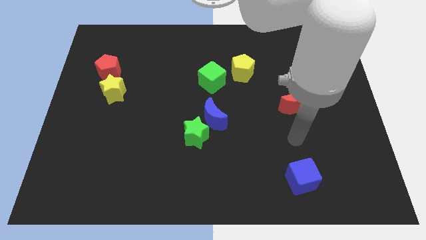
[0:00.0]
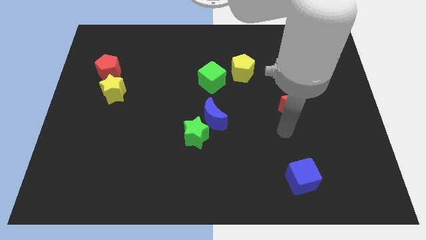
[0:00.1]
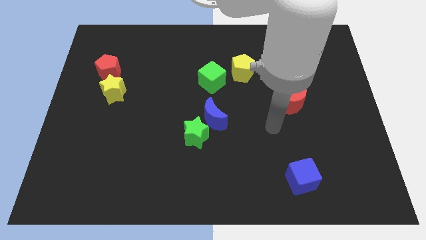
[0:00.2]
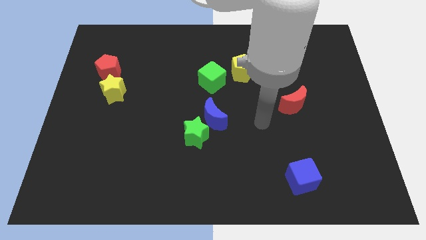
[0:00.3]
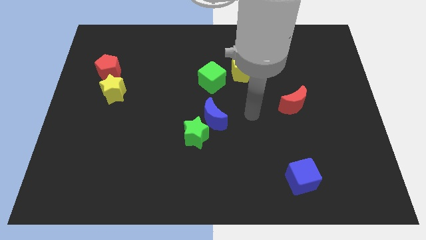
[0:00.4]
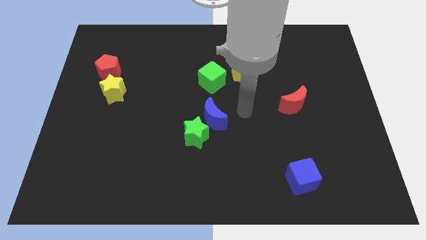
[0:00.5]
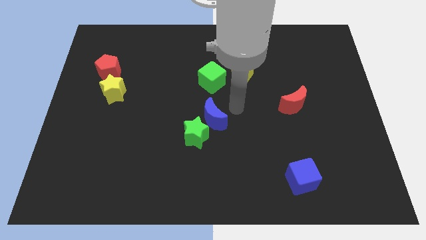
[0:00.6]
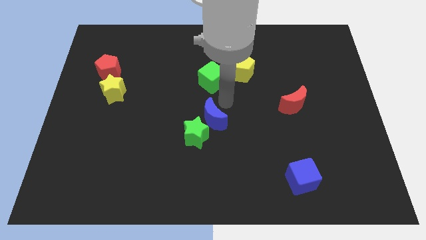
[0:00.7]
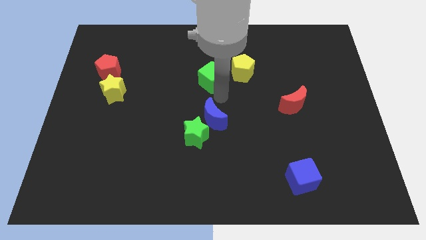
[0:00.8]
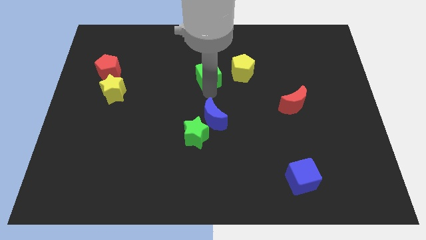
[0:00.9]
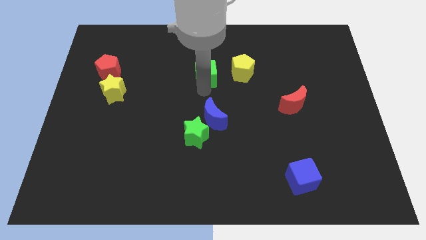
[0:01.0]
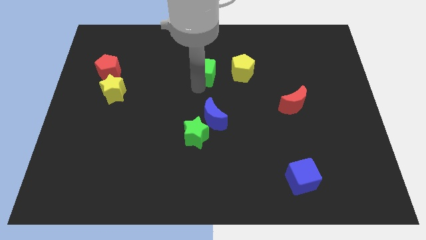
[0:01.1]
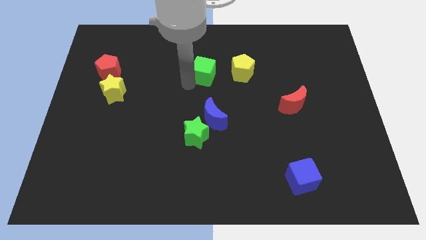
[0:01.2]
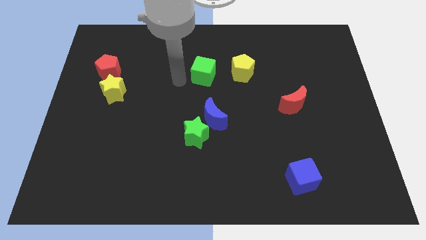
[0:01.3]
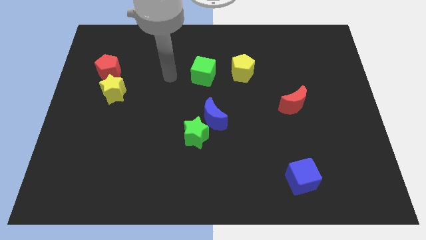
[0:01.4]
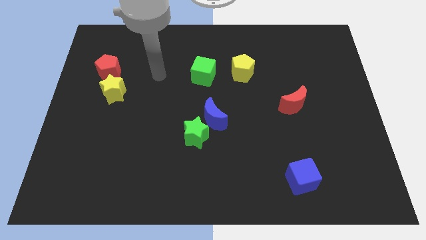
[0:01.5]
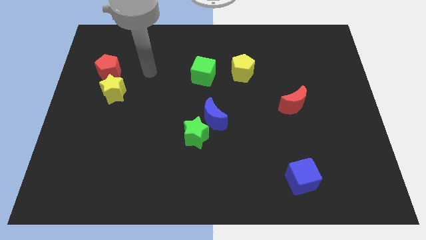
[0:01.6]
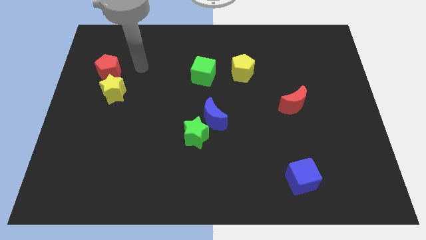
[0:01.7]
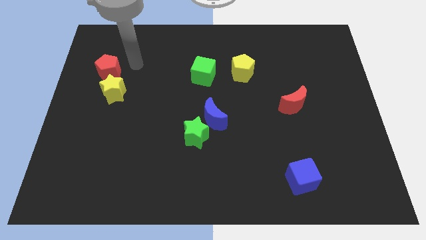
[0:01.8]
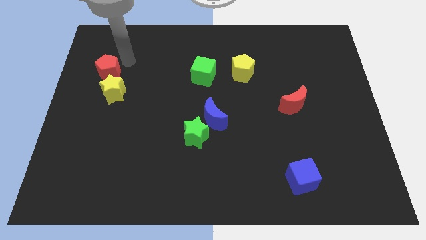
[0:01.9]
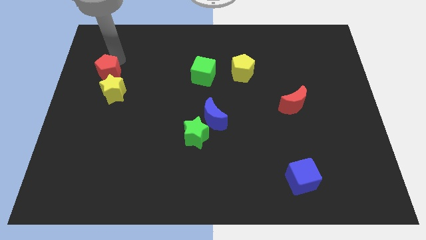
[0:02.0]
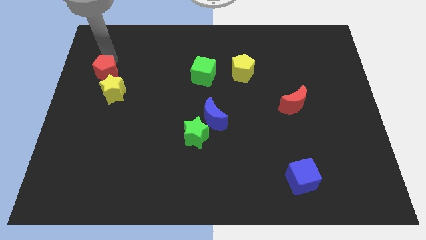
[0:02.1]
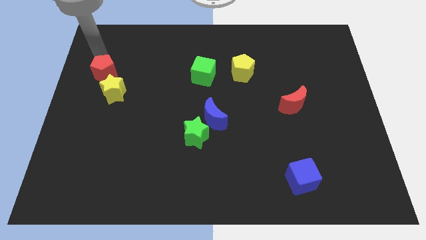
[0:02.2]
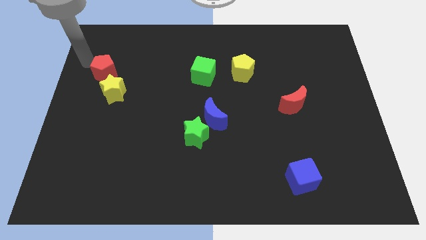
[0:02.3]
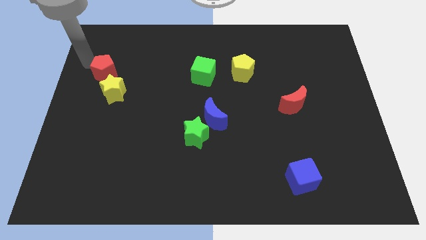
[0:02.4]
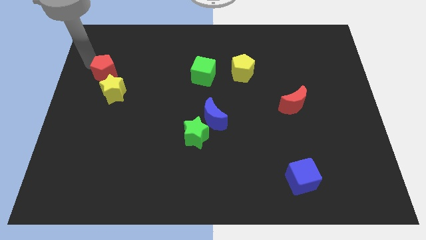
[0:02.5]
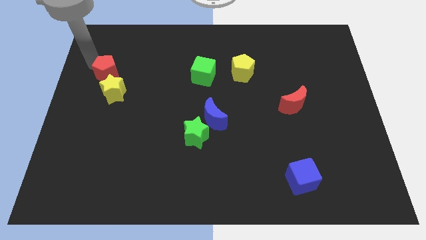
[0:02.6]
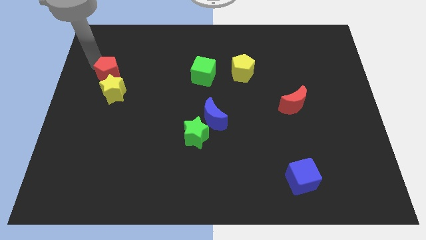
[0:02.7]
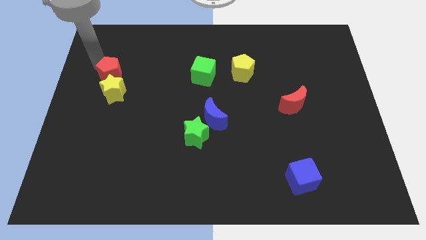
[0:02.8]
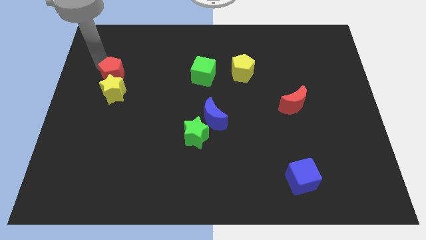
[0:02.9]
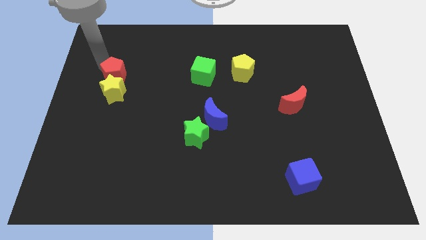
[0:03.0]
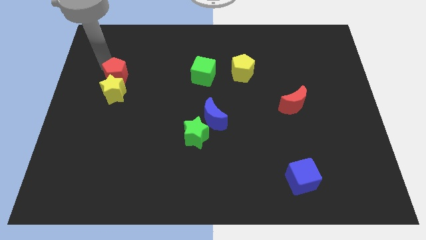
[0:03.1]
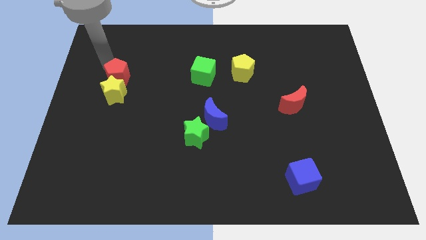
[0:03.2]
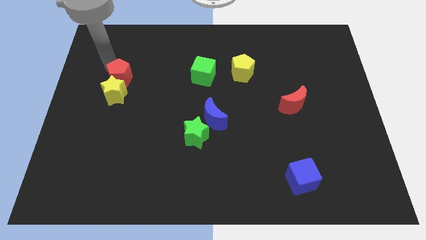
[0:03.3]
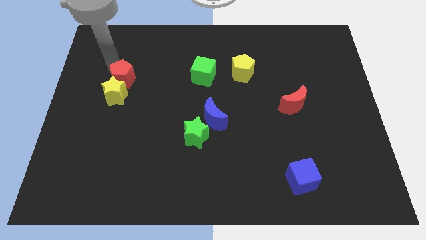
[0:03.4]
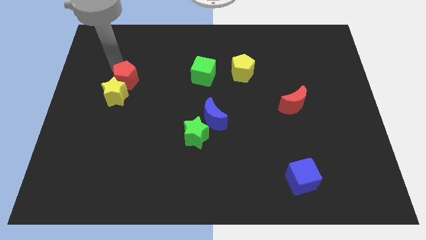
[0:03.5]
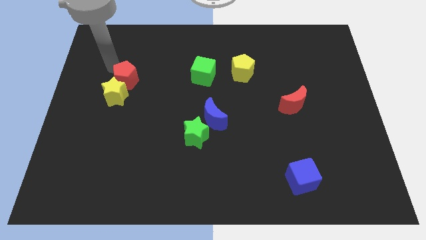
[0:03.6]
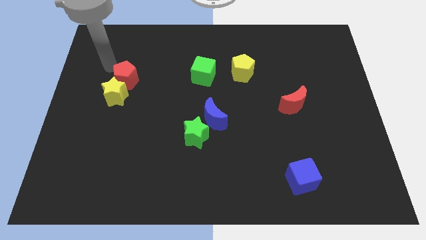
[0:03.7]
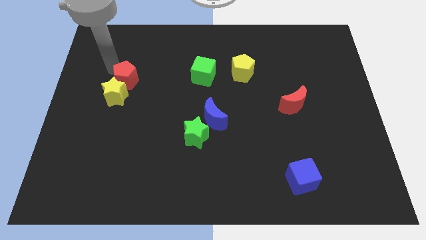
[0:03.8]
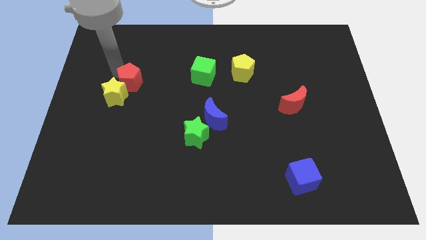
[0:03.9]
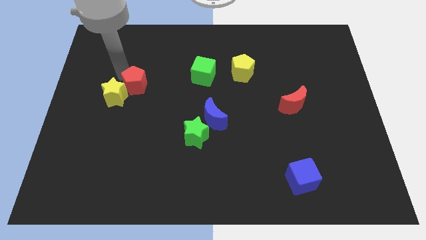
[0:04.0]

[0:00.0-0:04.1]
push the red pentagon somewhat diagonally downwards and right

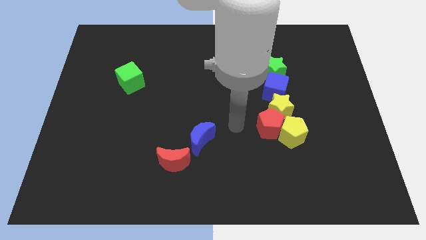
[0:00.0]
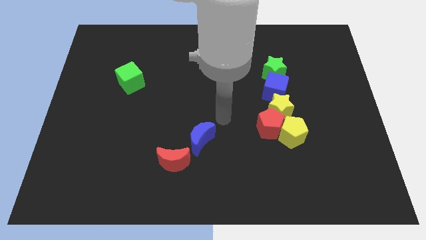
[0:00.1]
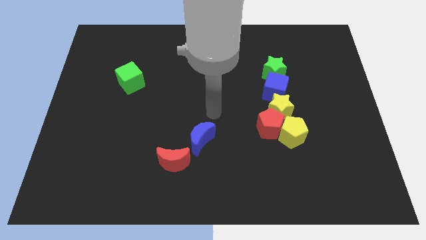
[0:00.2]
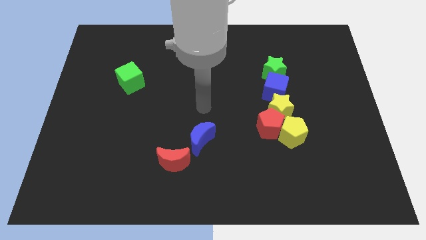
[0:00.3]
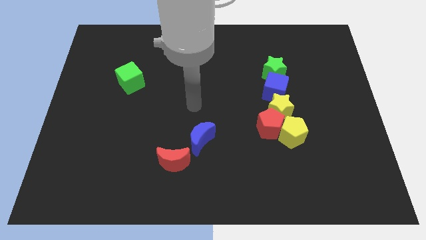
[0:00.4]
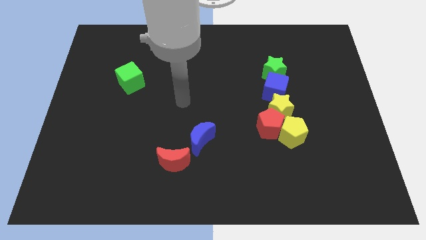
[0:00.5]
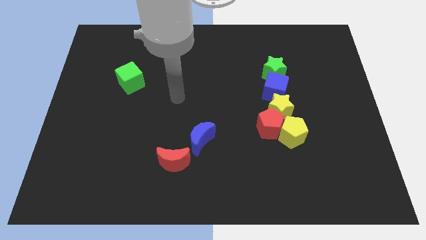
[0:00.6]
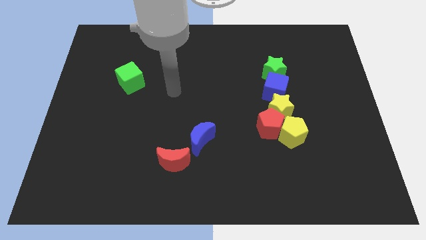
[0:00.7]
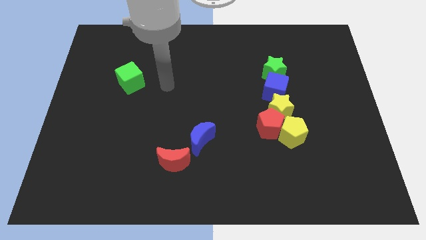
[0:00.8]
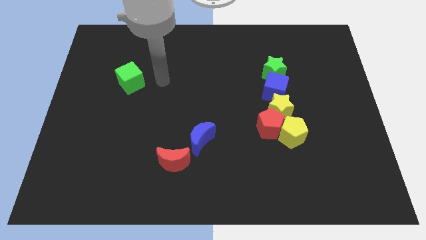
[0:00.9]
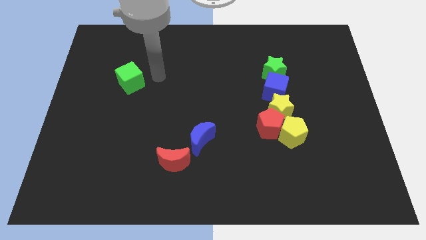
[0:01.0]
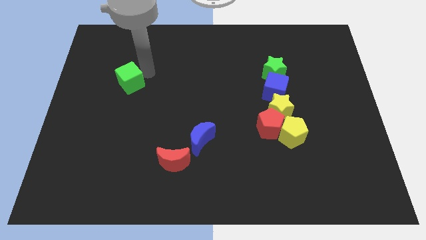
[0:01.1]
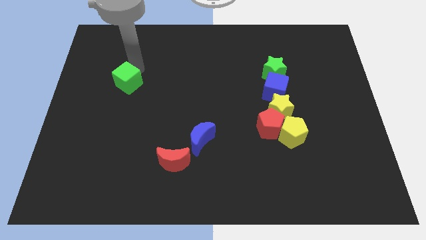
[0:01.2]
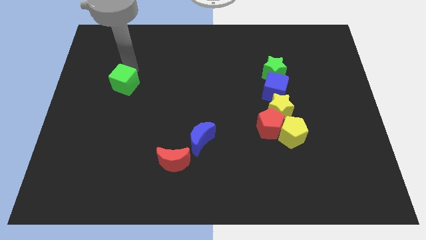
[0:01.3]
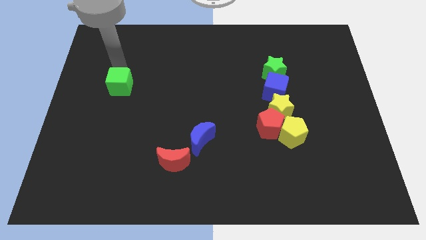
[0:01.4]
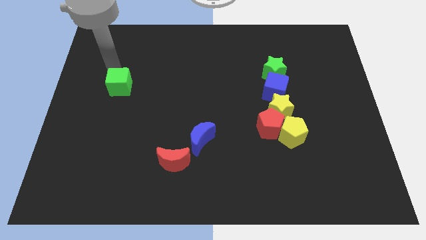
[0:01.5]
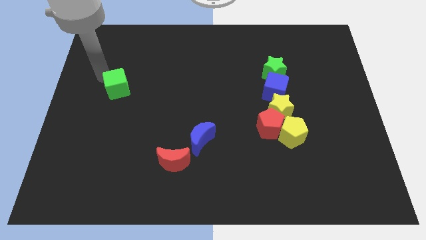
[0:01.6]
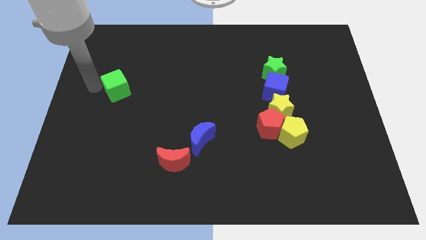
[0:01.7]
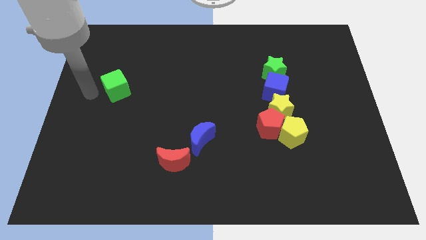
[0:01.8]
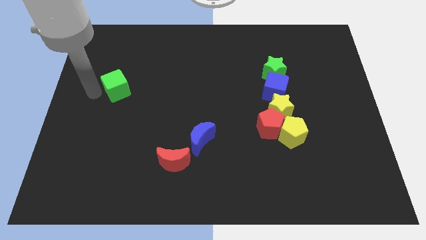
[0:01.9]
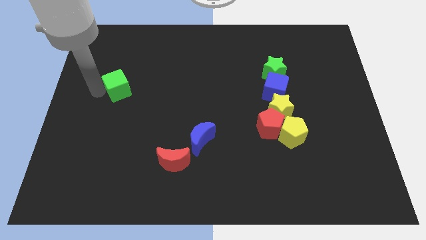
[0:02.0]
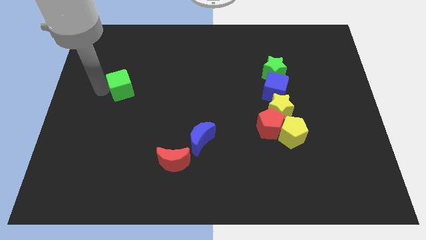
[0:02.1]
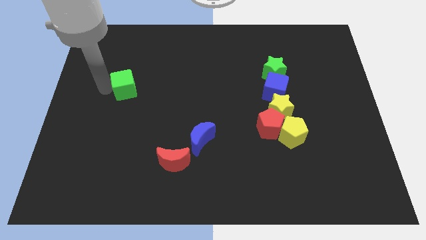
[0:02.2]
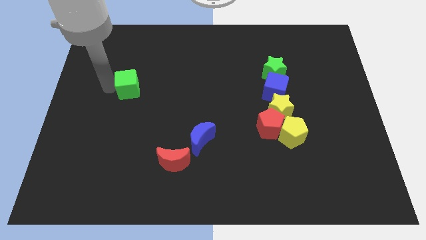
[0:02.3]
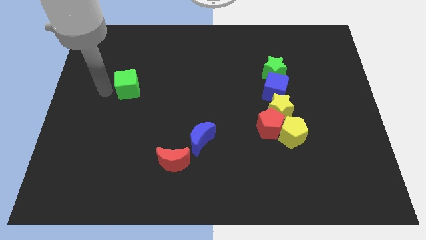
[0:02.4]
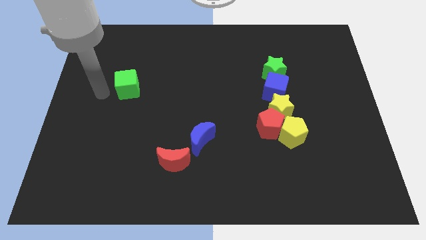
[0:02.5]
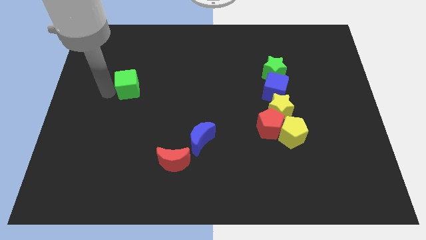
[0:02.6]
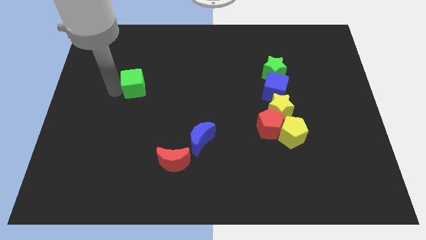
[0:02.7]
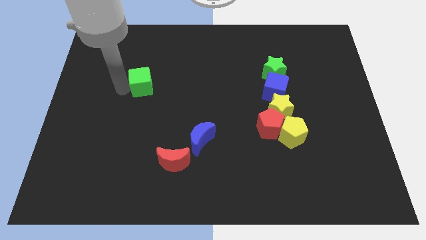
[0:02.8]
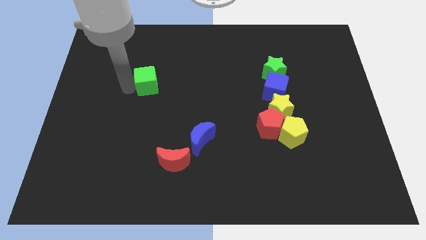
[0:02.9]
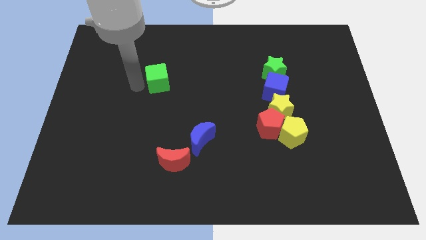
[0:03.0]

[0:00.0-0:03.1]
move the green cube to the right a little

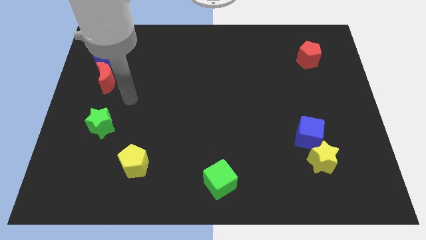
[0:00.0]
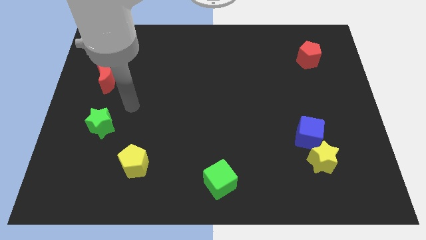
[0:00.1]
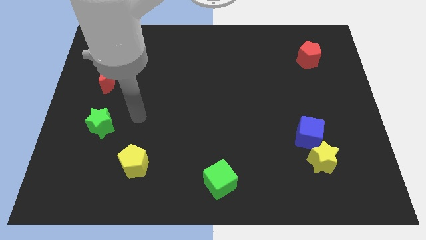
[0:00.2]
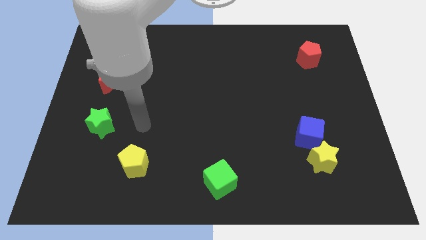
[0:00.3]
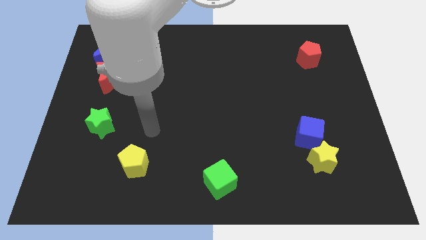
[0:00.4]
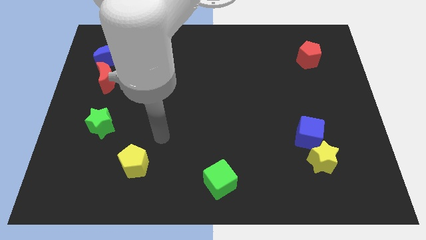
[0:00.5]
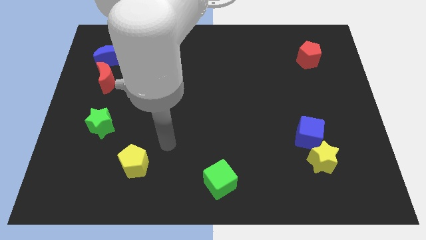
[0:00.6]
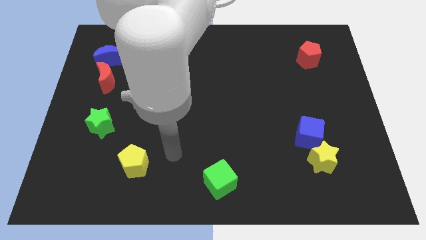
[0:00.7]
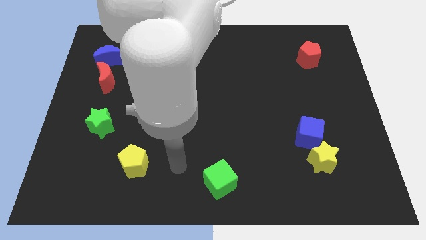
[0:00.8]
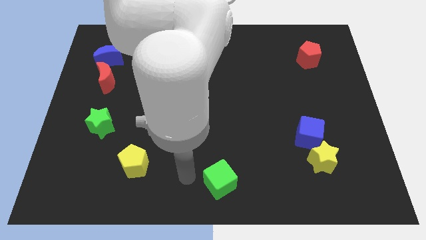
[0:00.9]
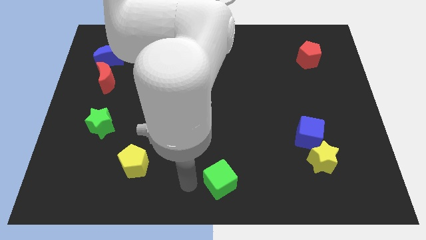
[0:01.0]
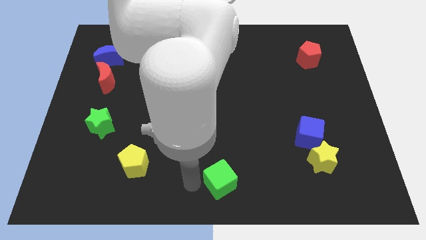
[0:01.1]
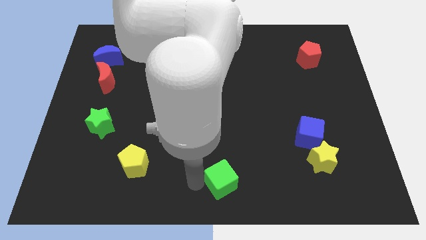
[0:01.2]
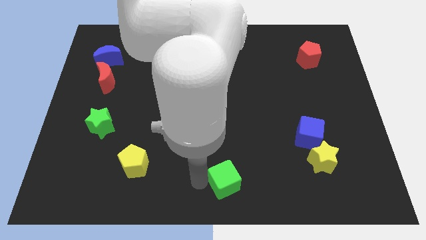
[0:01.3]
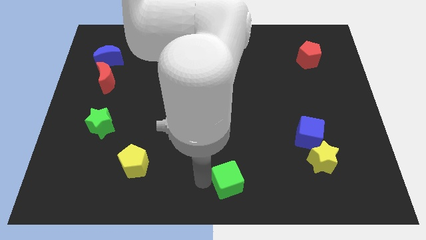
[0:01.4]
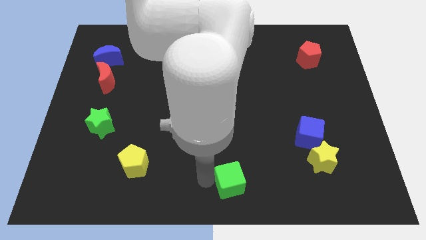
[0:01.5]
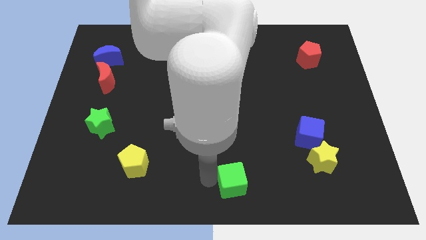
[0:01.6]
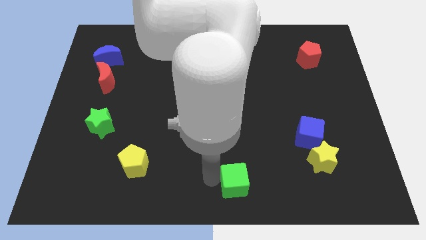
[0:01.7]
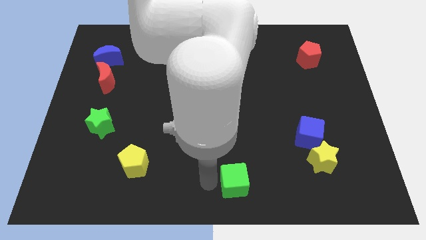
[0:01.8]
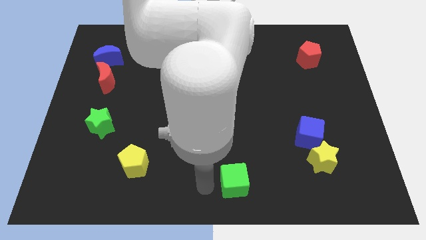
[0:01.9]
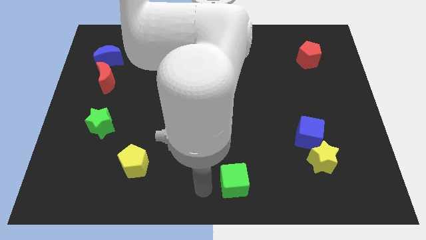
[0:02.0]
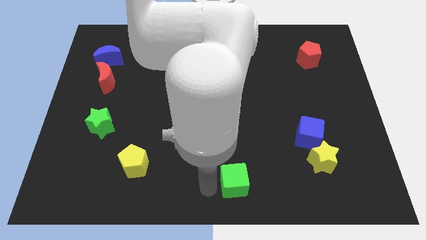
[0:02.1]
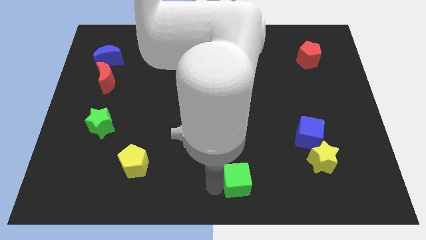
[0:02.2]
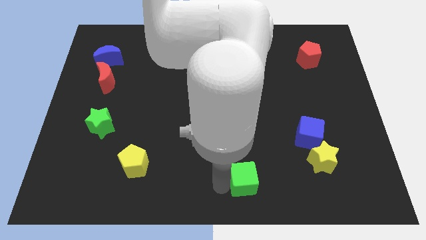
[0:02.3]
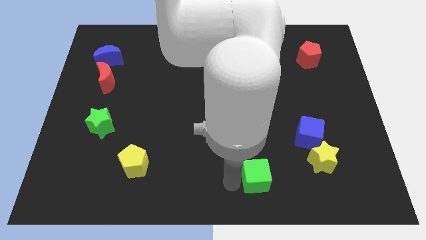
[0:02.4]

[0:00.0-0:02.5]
move the green cube somewhat to the right
